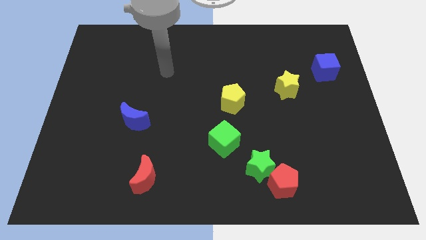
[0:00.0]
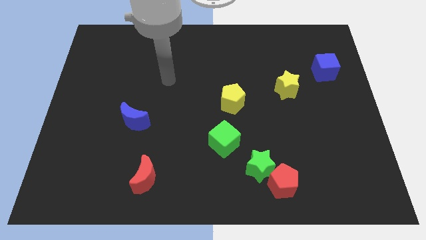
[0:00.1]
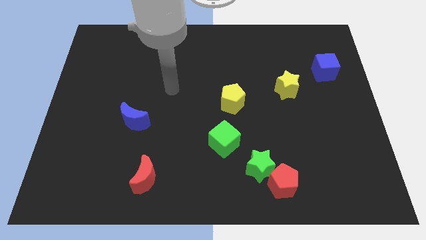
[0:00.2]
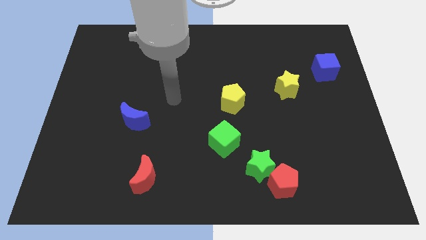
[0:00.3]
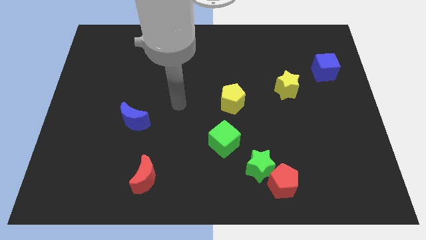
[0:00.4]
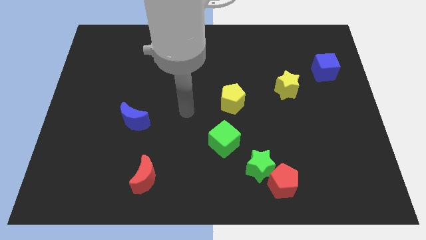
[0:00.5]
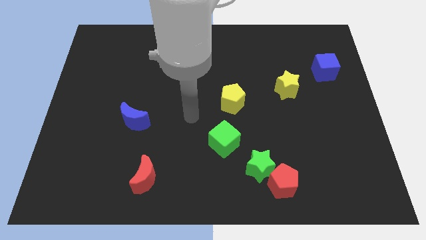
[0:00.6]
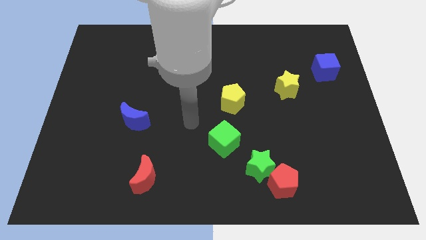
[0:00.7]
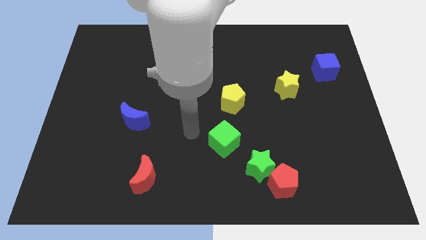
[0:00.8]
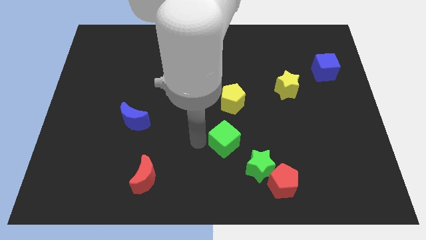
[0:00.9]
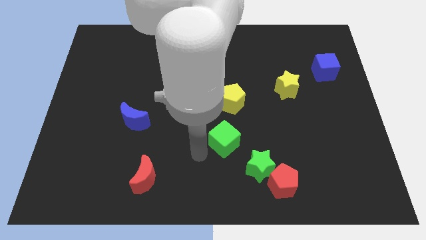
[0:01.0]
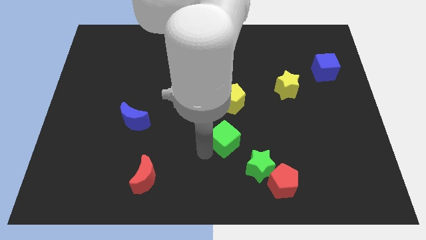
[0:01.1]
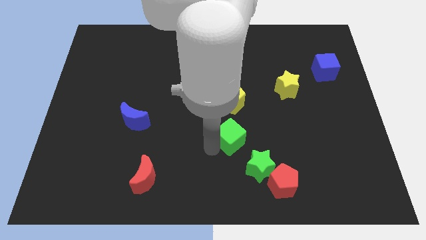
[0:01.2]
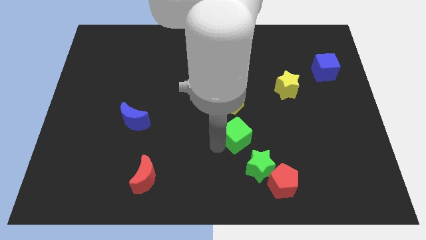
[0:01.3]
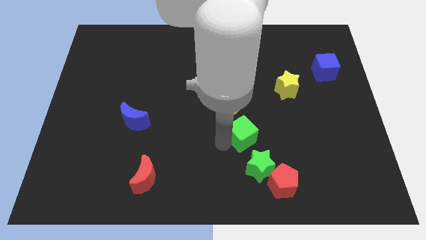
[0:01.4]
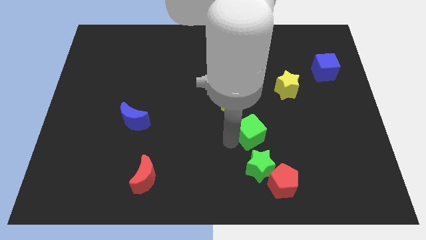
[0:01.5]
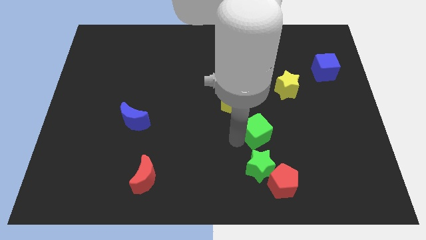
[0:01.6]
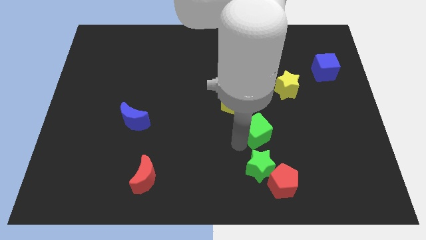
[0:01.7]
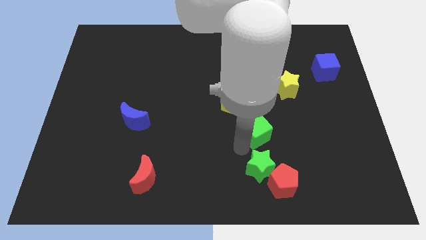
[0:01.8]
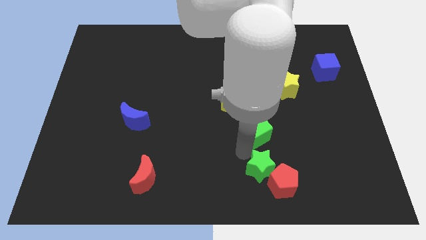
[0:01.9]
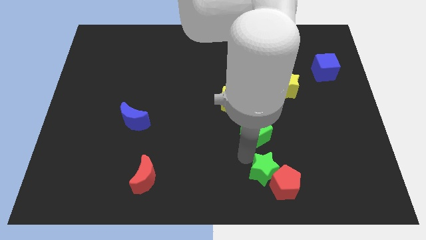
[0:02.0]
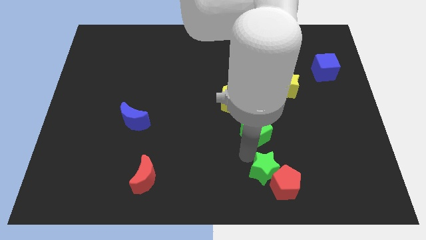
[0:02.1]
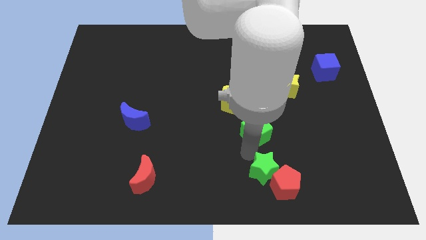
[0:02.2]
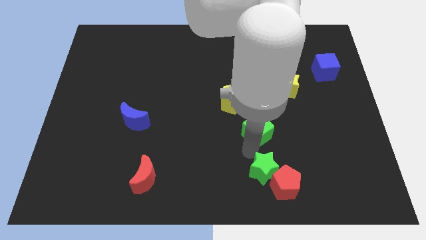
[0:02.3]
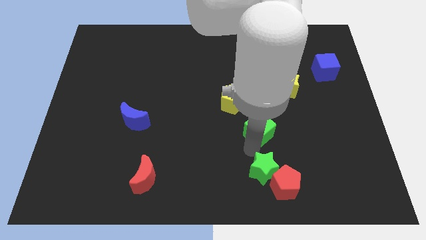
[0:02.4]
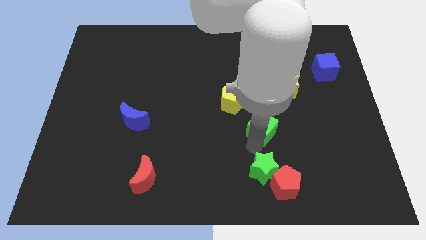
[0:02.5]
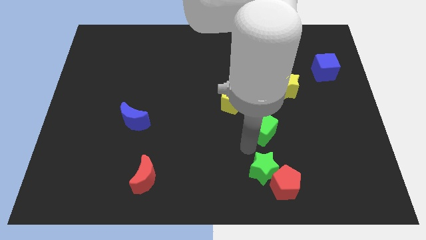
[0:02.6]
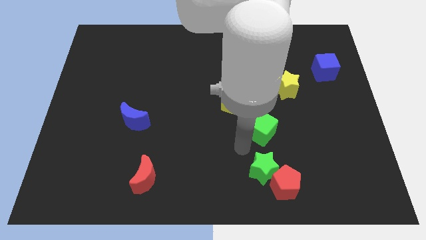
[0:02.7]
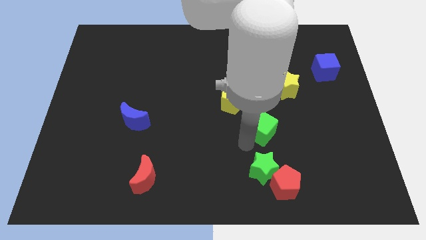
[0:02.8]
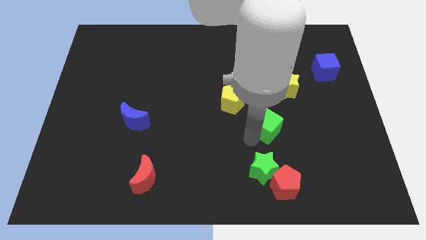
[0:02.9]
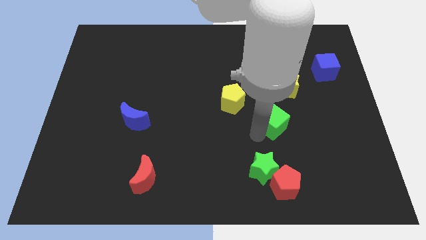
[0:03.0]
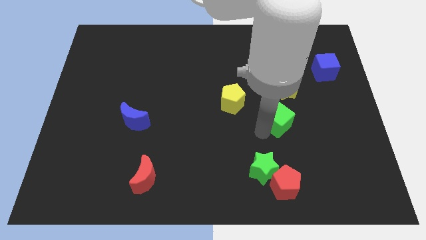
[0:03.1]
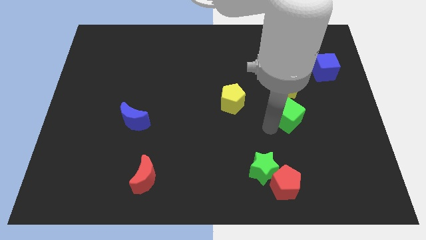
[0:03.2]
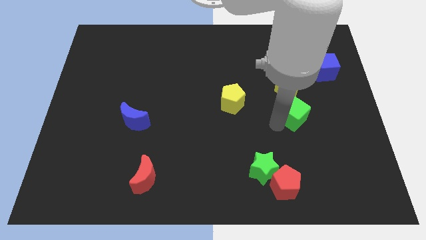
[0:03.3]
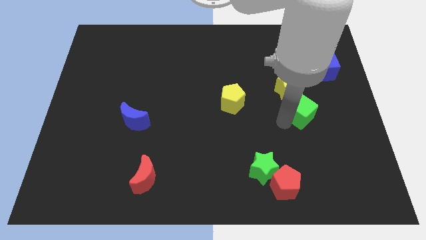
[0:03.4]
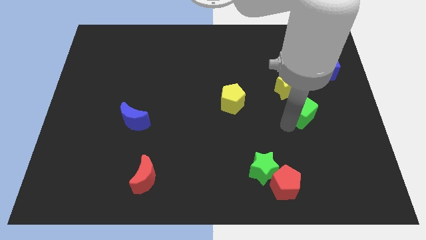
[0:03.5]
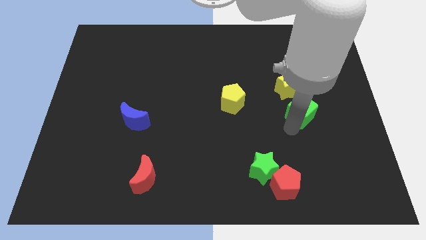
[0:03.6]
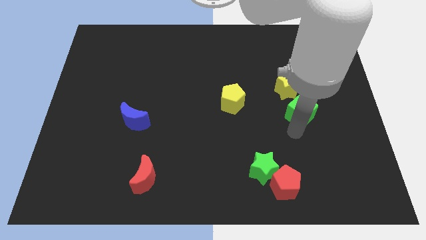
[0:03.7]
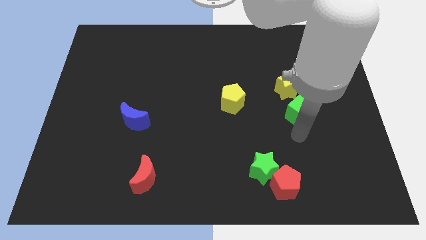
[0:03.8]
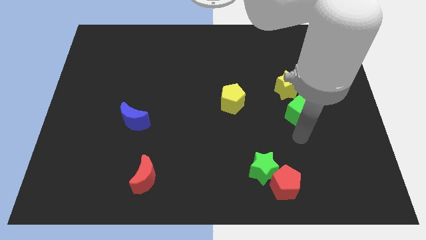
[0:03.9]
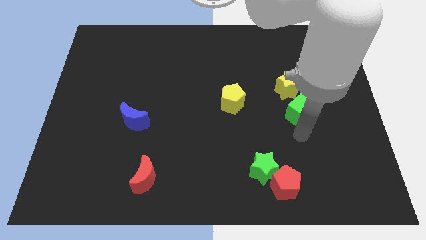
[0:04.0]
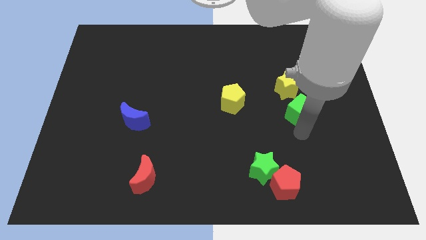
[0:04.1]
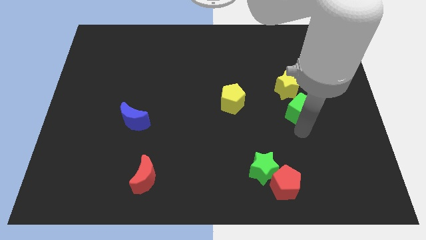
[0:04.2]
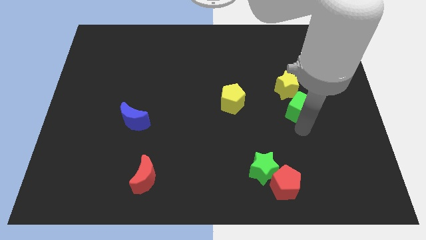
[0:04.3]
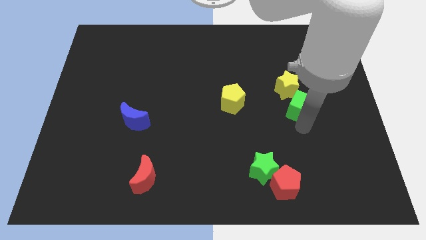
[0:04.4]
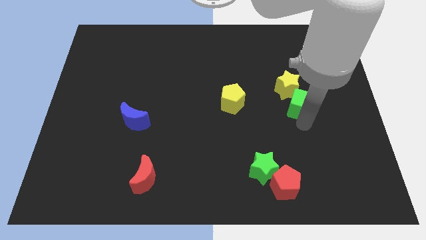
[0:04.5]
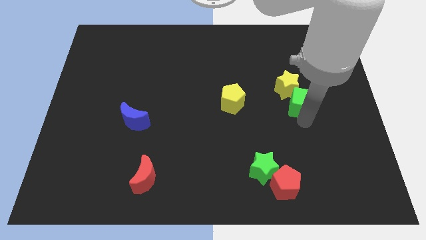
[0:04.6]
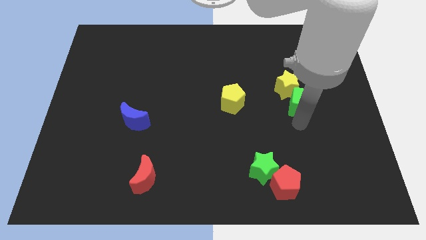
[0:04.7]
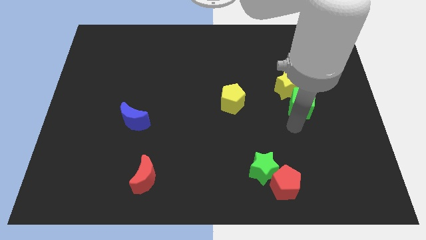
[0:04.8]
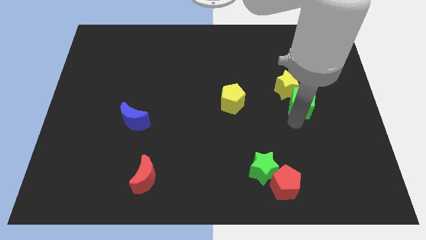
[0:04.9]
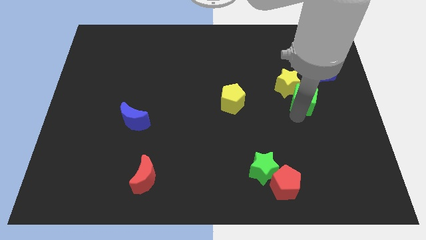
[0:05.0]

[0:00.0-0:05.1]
move the green cube diagonally down and to the left of the blue cube

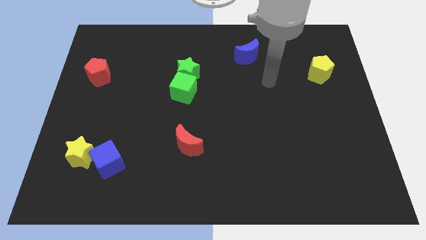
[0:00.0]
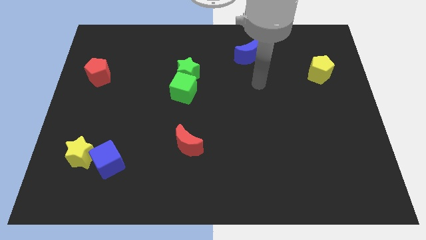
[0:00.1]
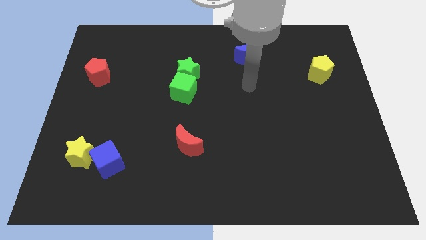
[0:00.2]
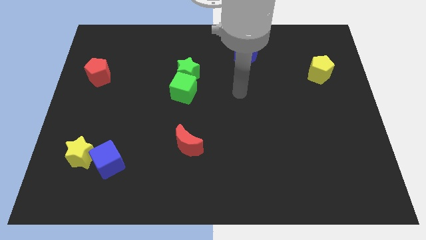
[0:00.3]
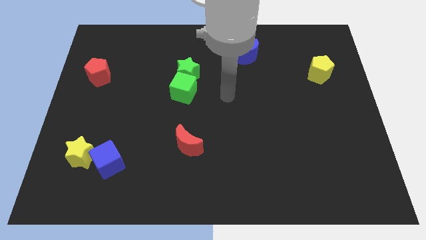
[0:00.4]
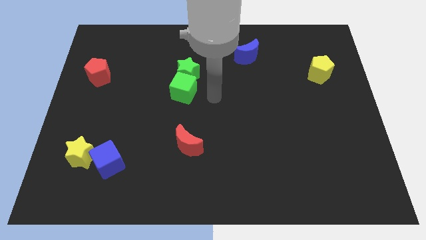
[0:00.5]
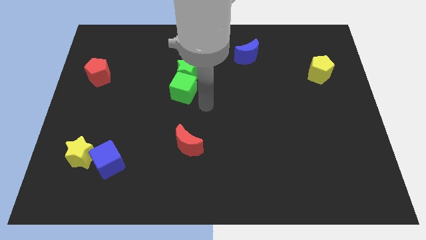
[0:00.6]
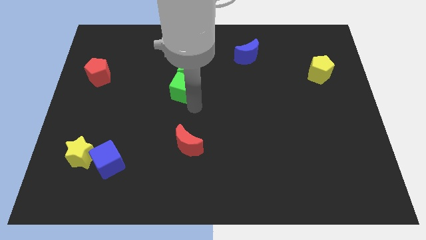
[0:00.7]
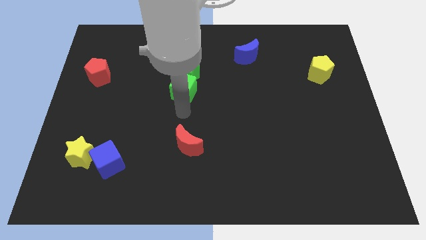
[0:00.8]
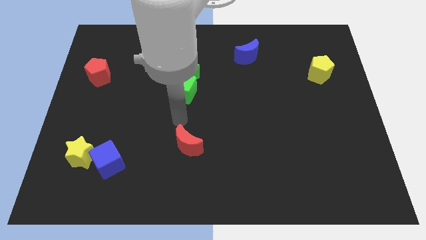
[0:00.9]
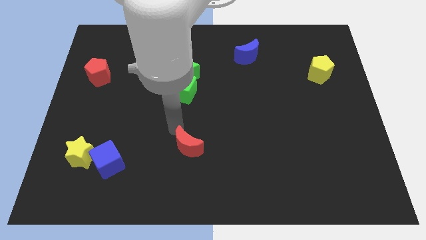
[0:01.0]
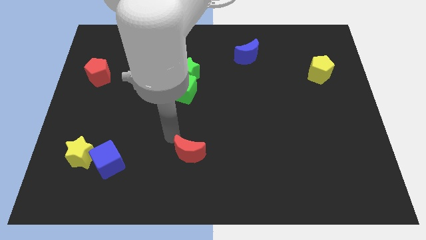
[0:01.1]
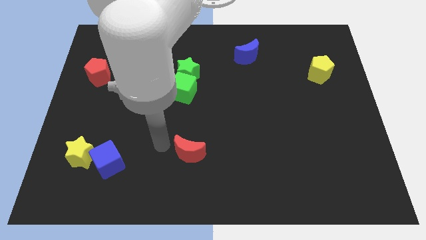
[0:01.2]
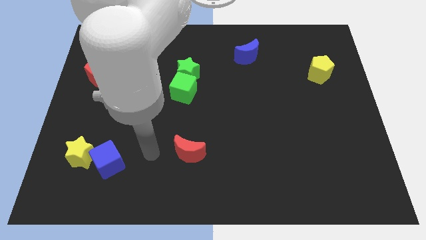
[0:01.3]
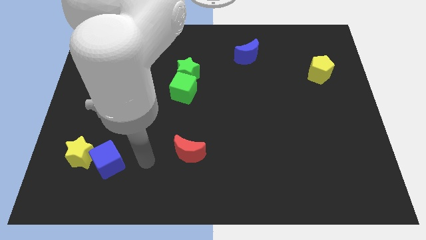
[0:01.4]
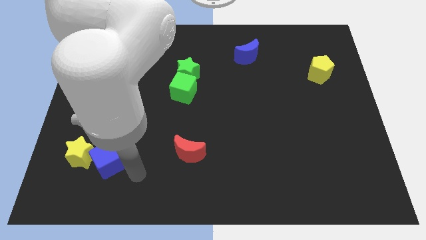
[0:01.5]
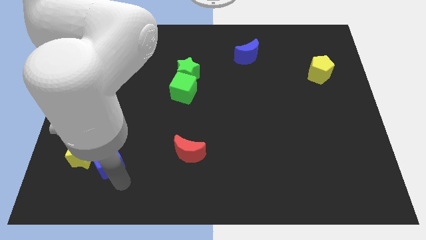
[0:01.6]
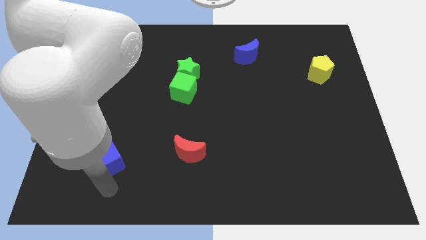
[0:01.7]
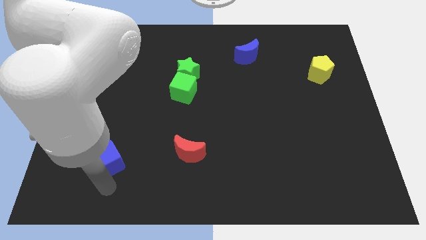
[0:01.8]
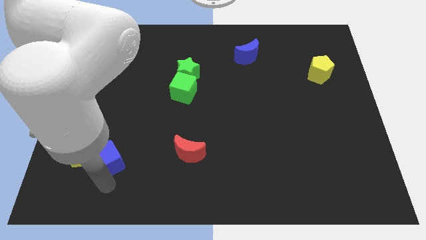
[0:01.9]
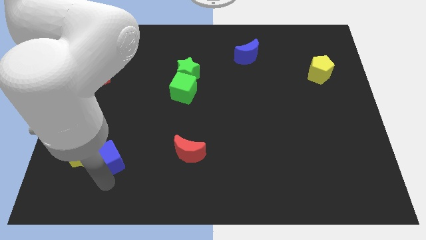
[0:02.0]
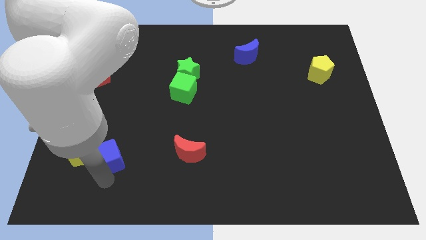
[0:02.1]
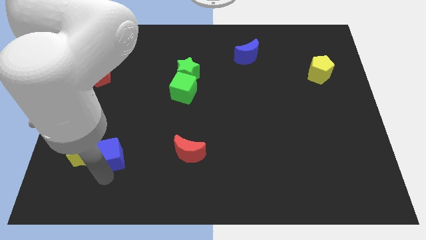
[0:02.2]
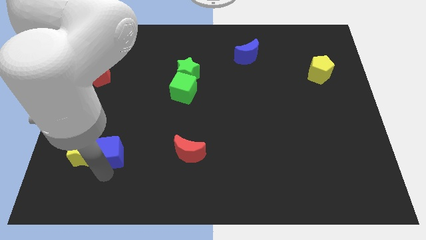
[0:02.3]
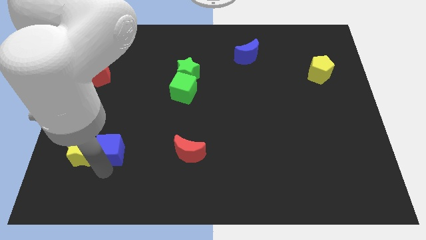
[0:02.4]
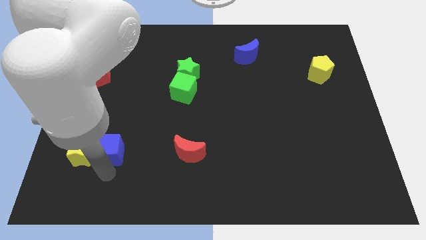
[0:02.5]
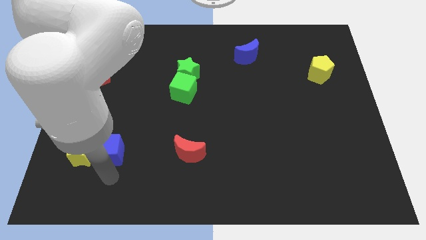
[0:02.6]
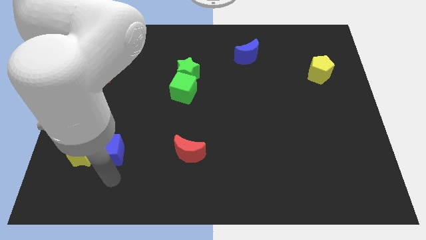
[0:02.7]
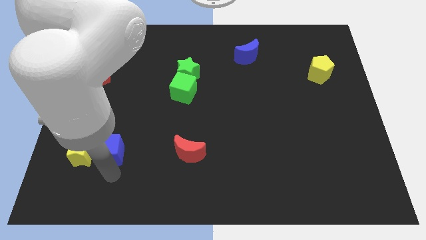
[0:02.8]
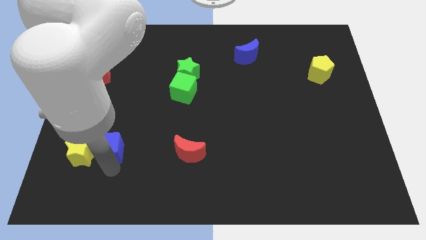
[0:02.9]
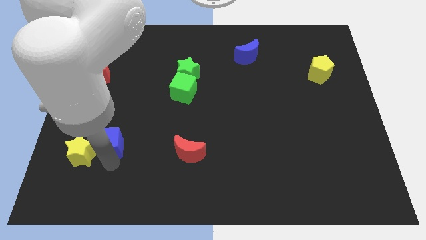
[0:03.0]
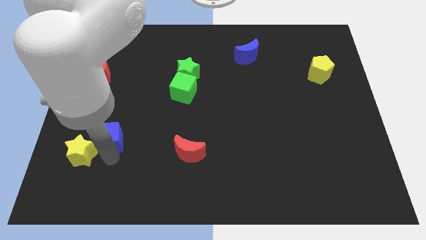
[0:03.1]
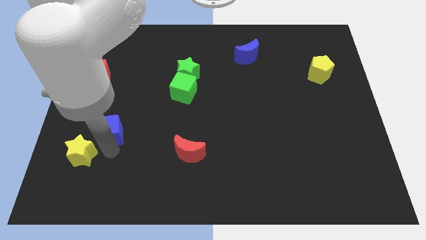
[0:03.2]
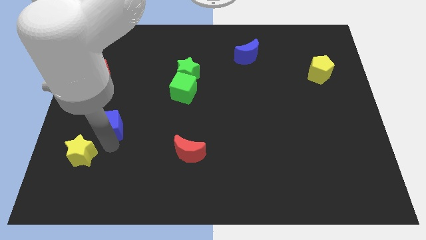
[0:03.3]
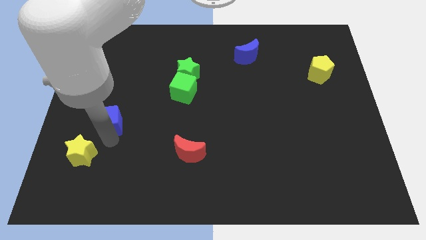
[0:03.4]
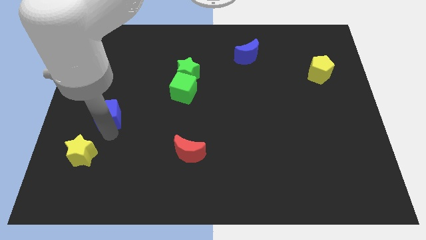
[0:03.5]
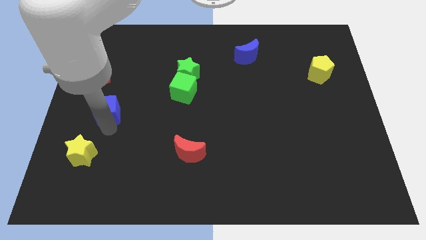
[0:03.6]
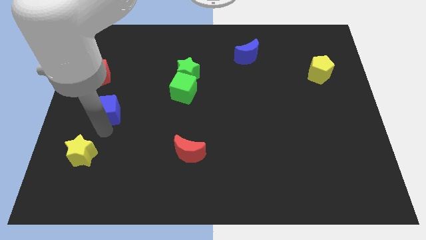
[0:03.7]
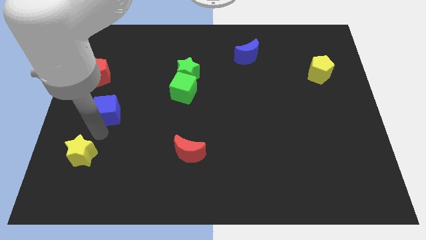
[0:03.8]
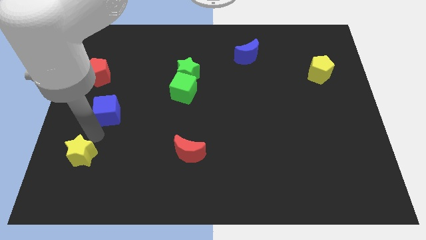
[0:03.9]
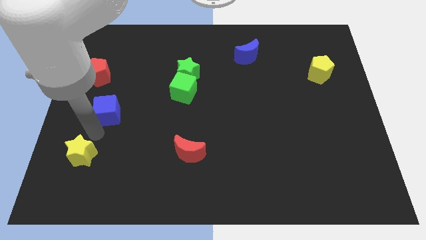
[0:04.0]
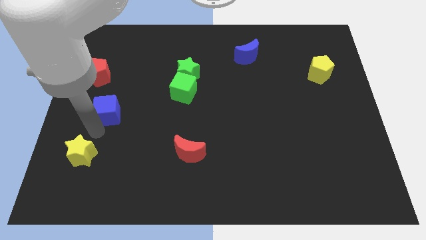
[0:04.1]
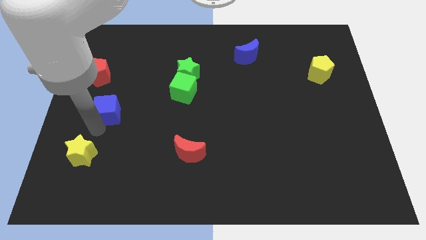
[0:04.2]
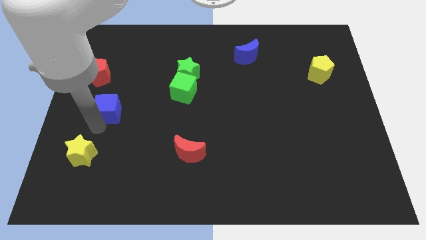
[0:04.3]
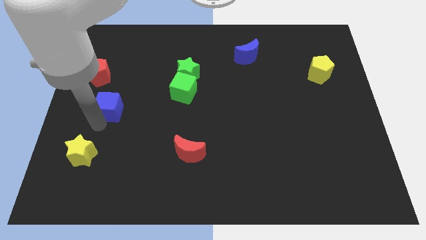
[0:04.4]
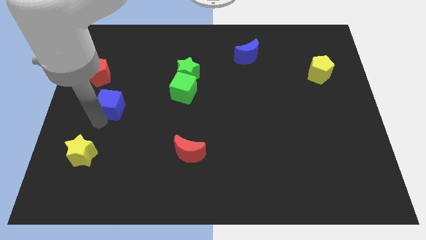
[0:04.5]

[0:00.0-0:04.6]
slide the blue cube to the bottom right of the red pentagon
